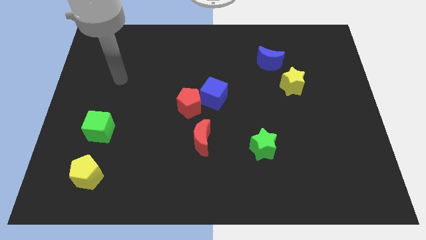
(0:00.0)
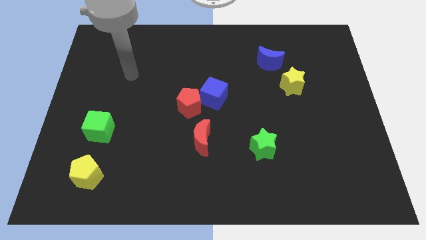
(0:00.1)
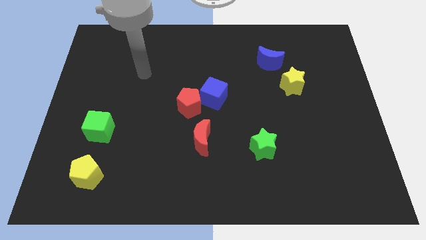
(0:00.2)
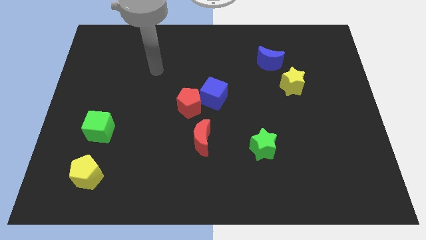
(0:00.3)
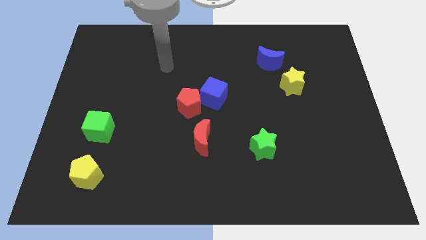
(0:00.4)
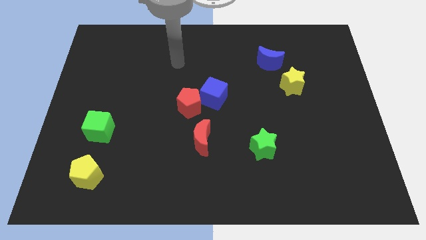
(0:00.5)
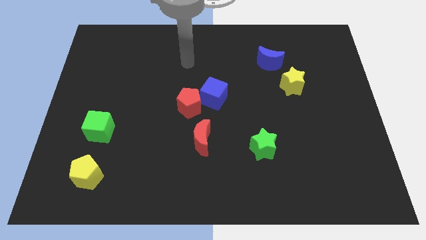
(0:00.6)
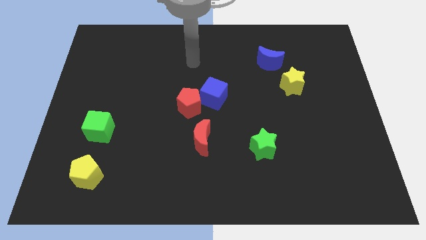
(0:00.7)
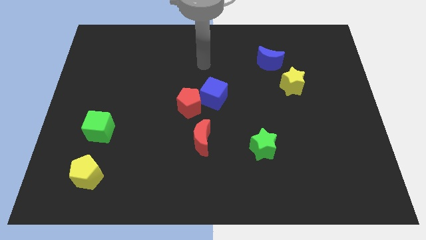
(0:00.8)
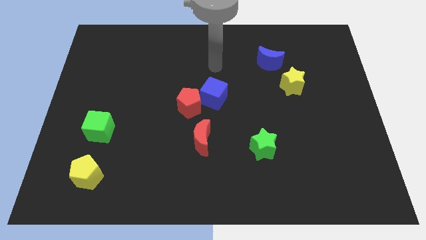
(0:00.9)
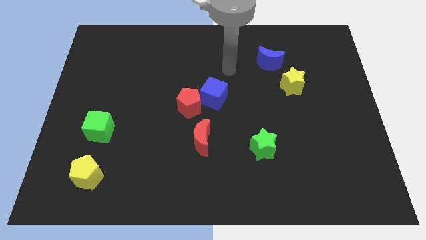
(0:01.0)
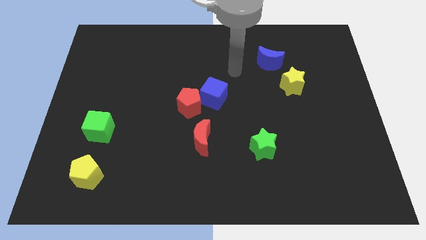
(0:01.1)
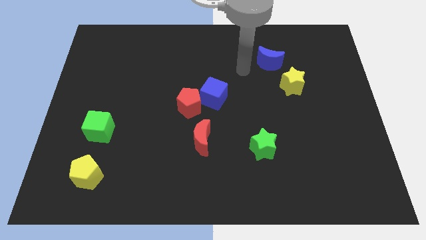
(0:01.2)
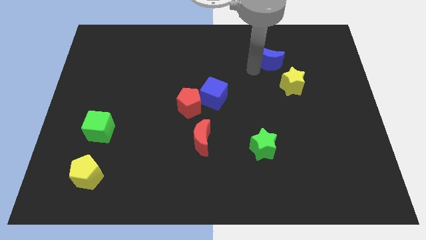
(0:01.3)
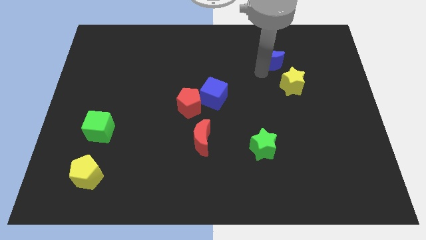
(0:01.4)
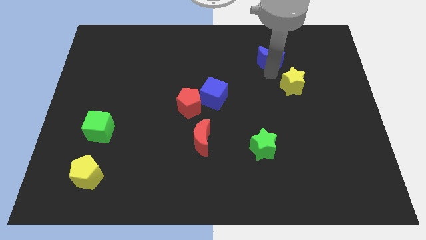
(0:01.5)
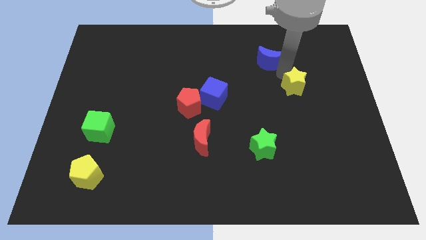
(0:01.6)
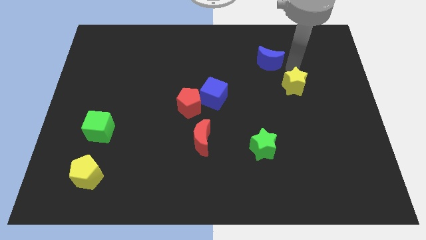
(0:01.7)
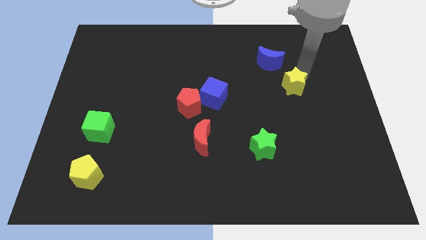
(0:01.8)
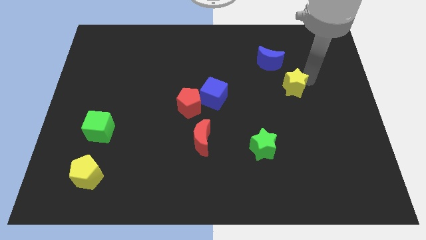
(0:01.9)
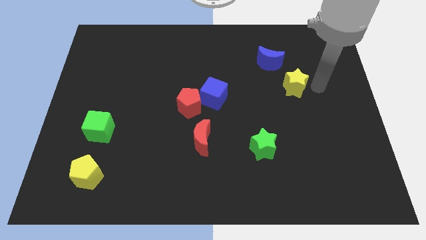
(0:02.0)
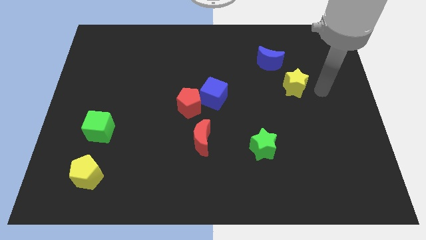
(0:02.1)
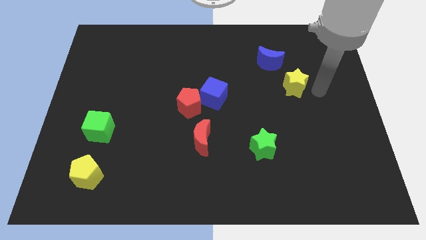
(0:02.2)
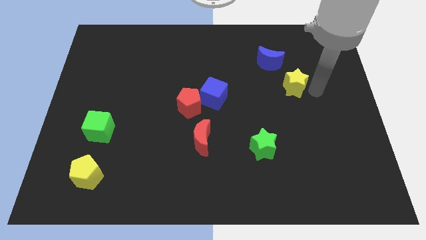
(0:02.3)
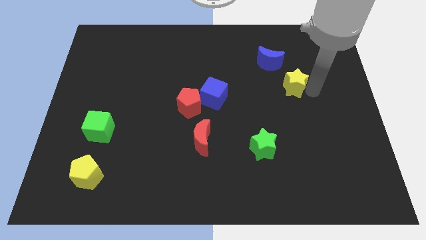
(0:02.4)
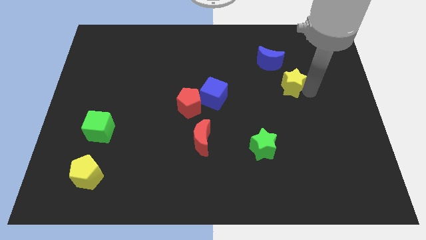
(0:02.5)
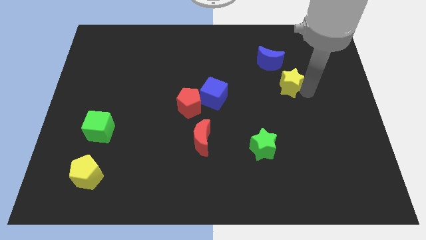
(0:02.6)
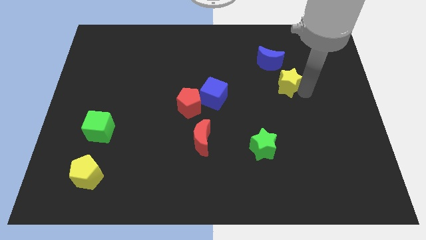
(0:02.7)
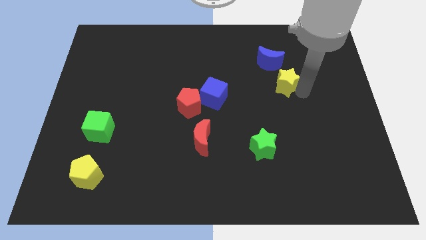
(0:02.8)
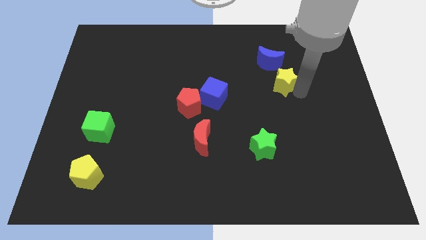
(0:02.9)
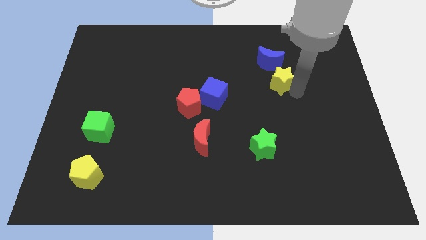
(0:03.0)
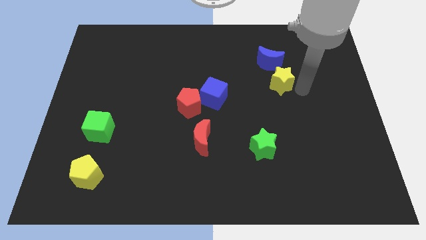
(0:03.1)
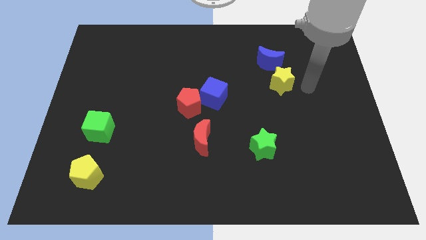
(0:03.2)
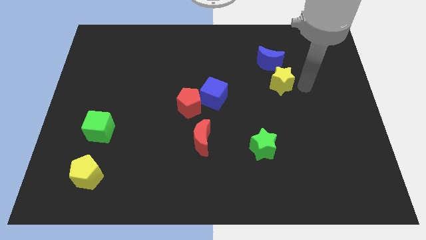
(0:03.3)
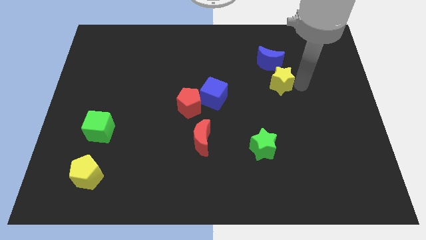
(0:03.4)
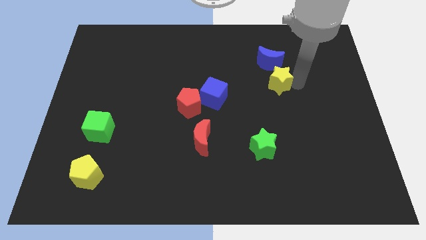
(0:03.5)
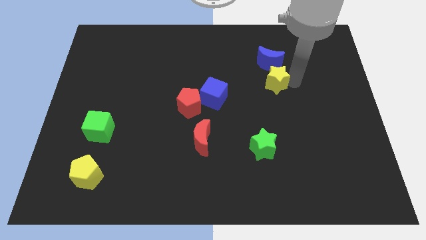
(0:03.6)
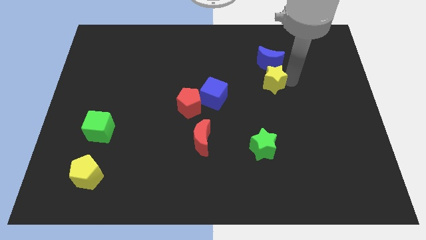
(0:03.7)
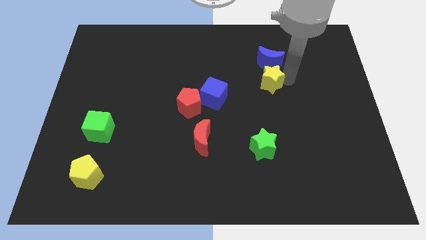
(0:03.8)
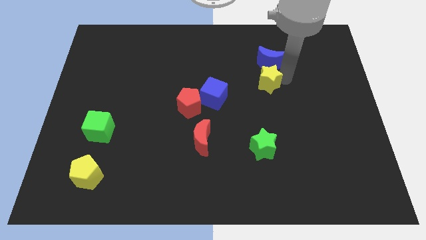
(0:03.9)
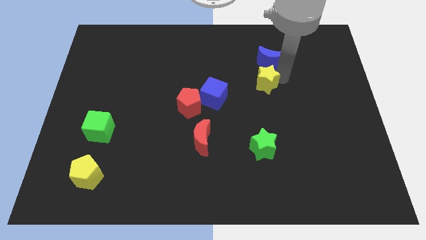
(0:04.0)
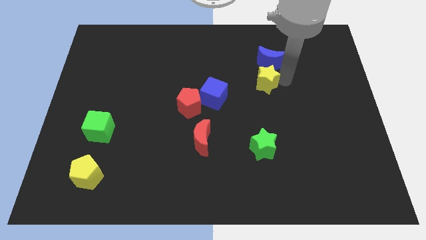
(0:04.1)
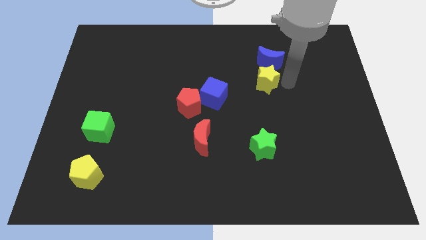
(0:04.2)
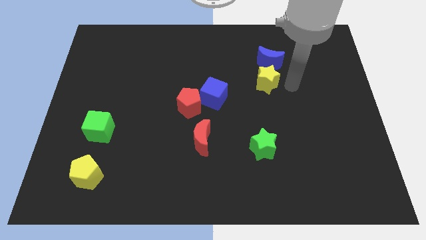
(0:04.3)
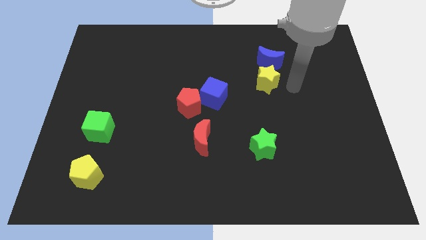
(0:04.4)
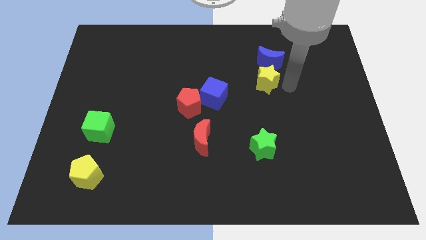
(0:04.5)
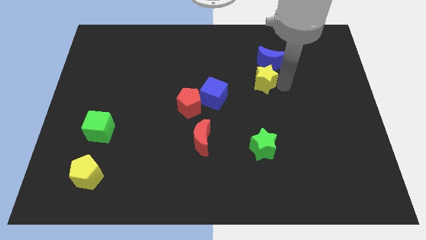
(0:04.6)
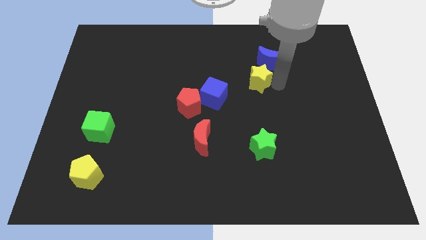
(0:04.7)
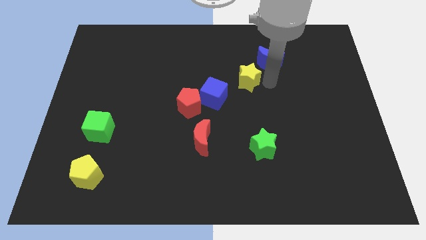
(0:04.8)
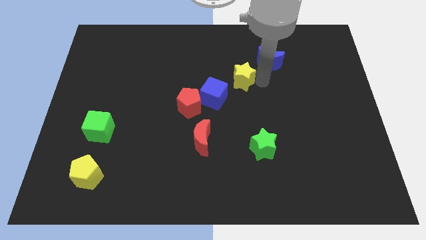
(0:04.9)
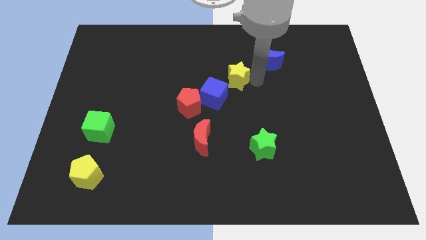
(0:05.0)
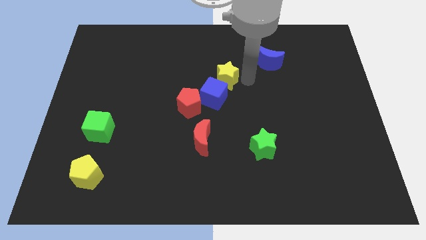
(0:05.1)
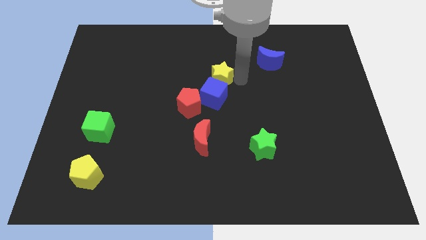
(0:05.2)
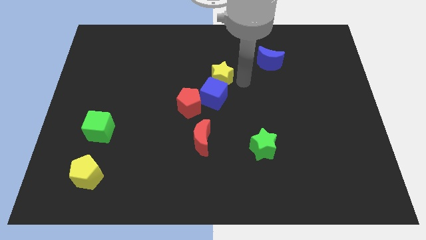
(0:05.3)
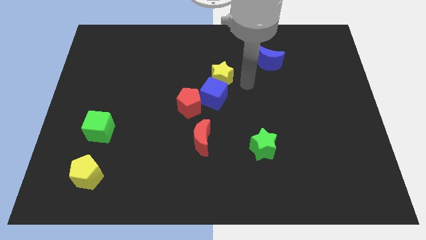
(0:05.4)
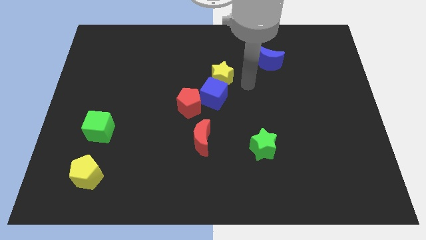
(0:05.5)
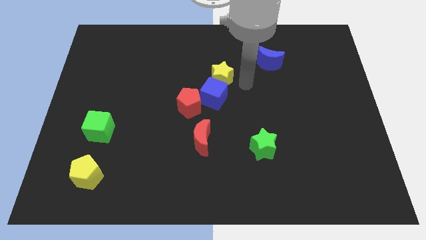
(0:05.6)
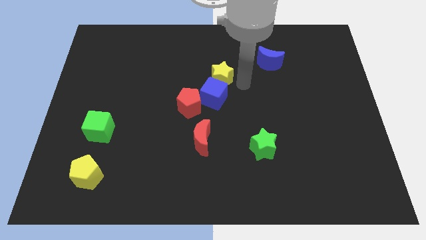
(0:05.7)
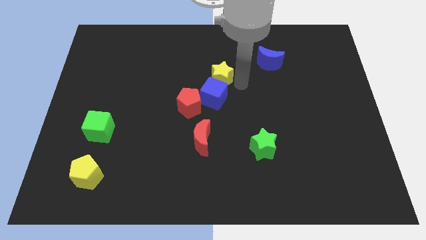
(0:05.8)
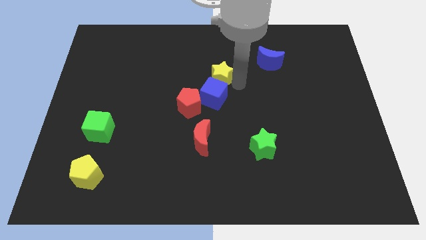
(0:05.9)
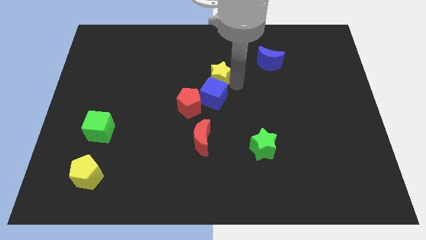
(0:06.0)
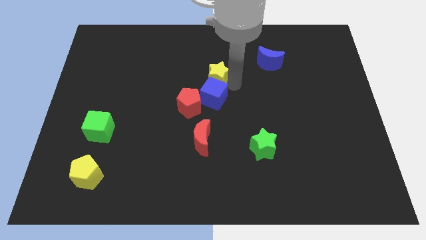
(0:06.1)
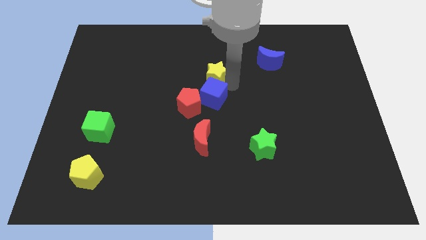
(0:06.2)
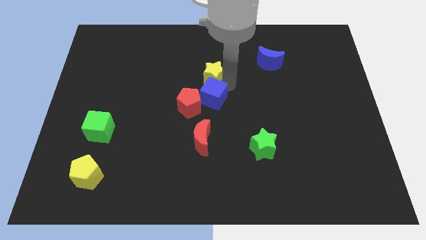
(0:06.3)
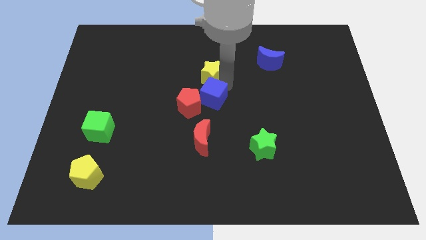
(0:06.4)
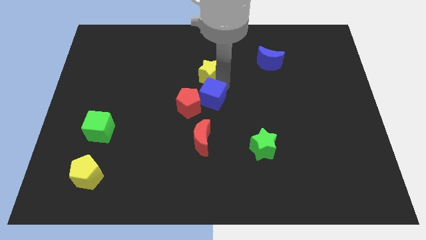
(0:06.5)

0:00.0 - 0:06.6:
move the yellow star to the top side of the red pentagon
